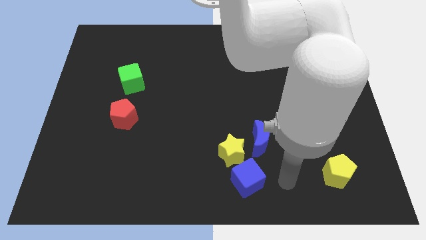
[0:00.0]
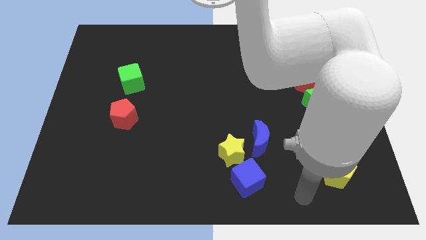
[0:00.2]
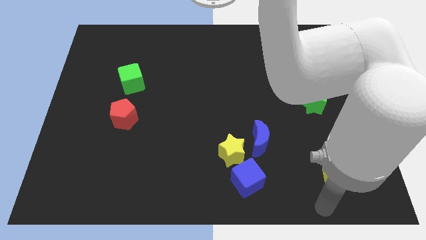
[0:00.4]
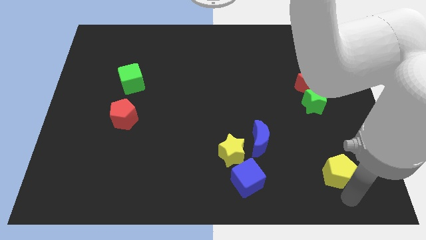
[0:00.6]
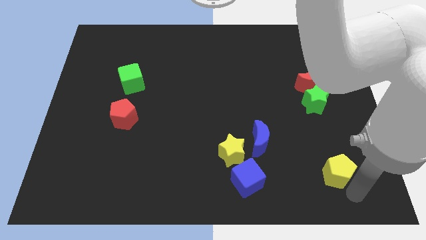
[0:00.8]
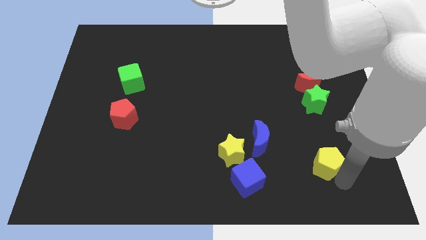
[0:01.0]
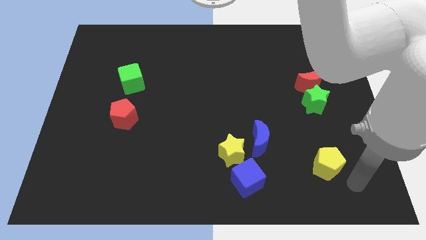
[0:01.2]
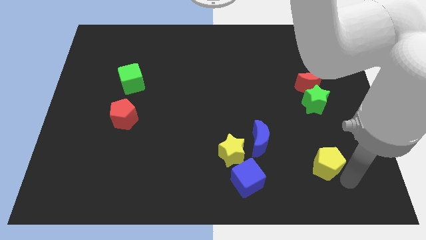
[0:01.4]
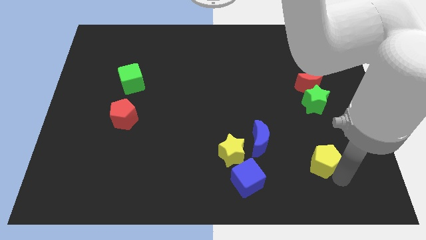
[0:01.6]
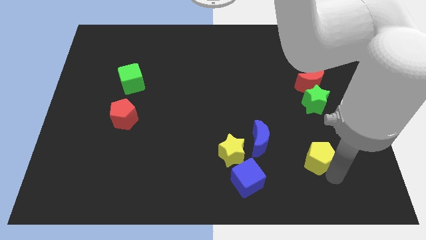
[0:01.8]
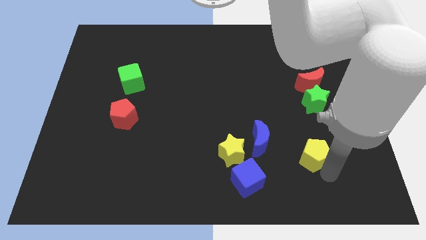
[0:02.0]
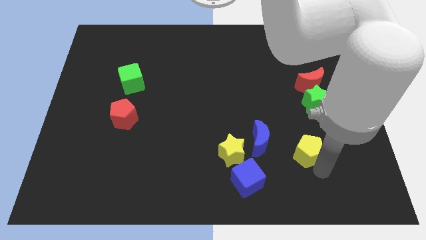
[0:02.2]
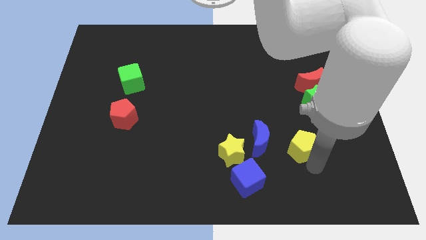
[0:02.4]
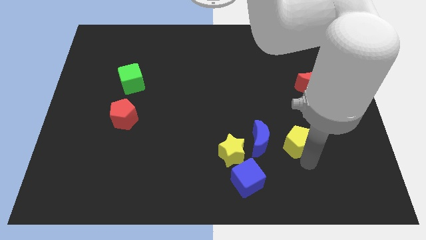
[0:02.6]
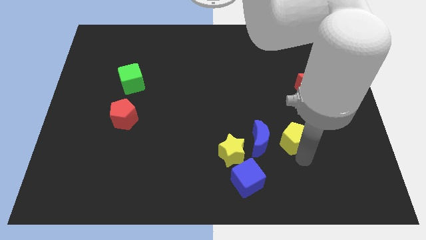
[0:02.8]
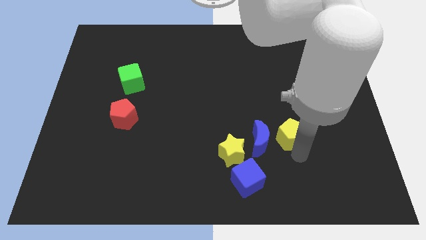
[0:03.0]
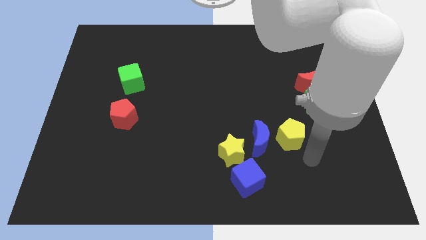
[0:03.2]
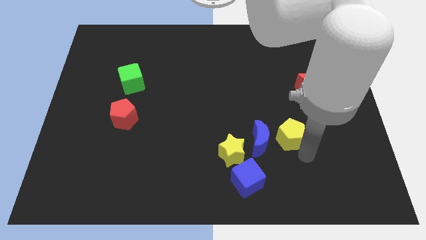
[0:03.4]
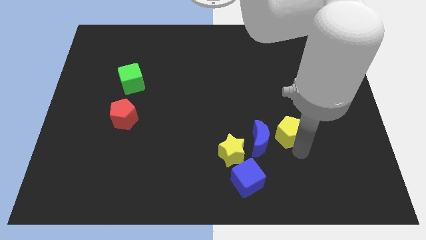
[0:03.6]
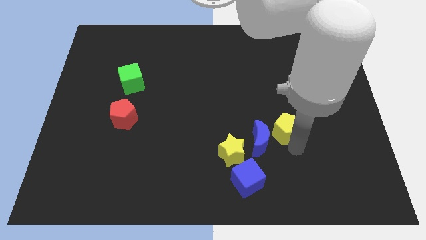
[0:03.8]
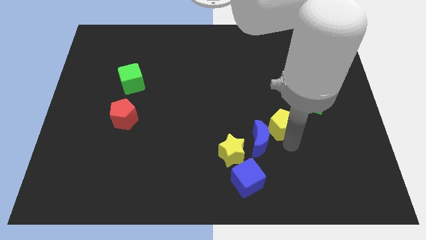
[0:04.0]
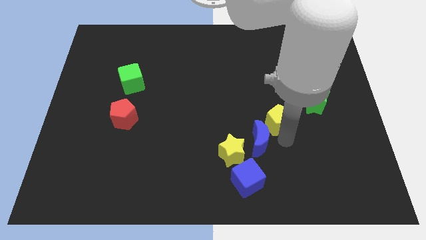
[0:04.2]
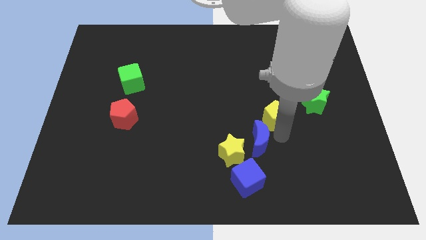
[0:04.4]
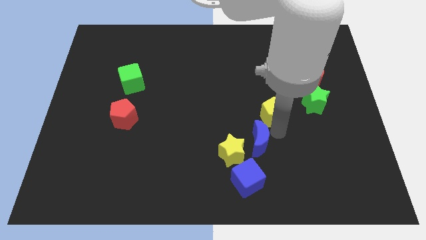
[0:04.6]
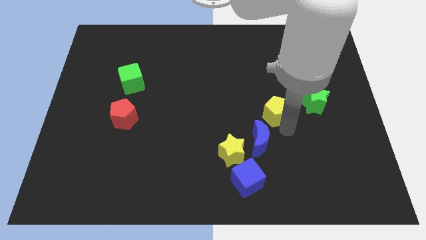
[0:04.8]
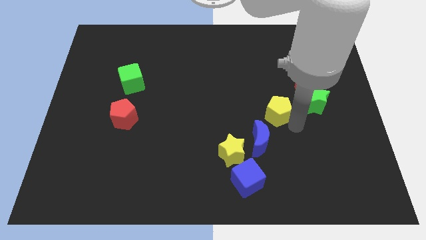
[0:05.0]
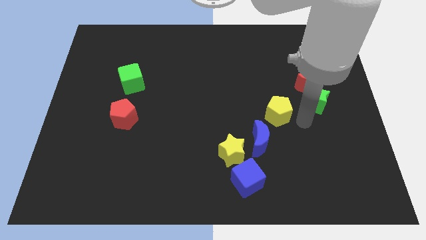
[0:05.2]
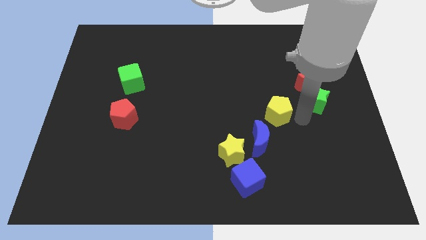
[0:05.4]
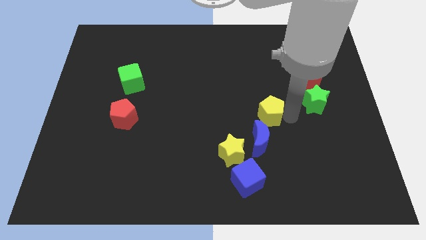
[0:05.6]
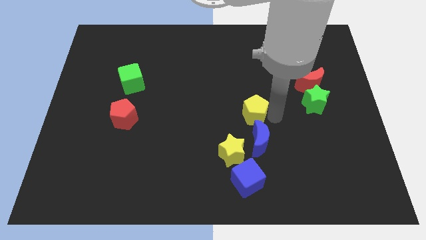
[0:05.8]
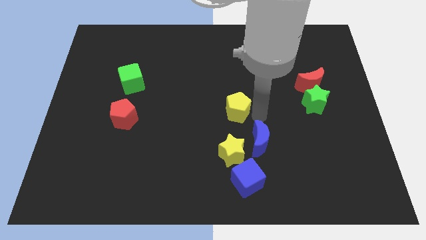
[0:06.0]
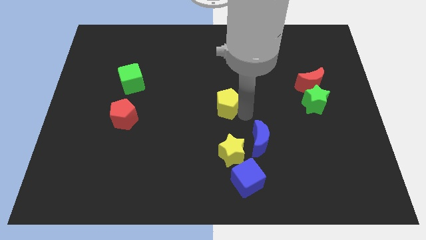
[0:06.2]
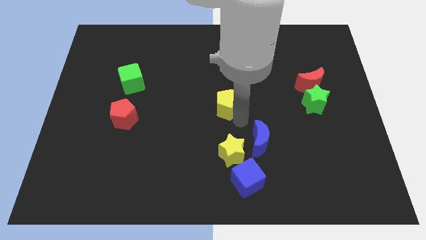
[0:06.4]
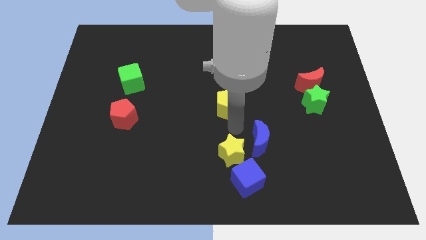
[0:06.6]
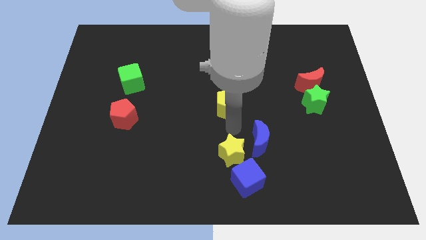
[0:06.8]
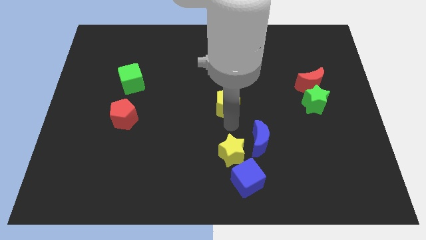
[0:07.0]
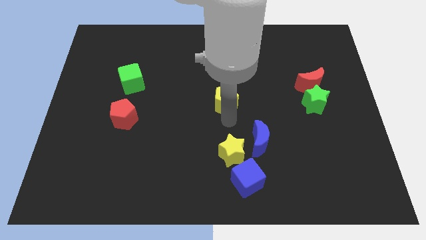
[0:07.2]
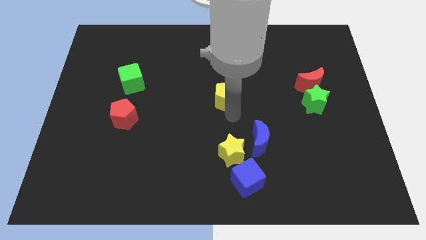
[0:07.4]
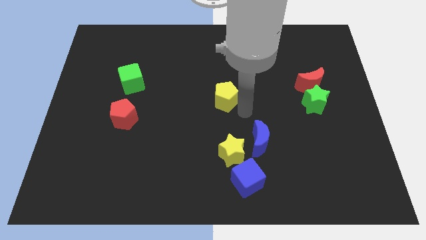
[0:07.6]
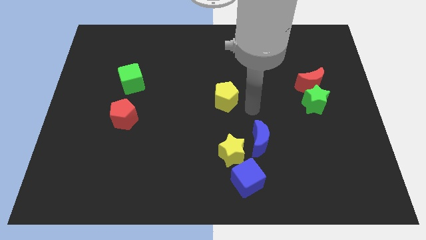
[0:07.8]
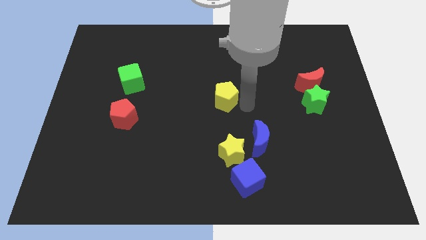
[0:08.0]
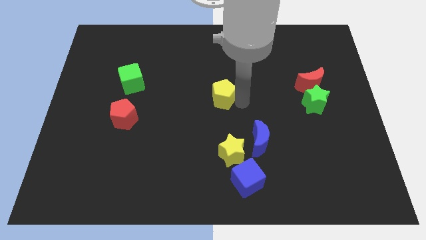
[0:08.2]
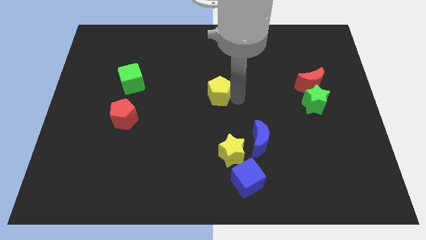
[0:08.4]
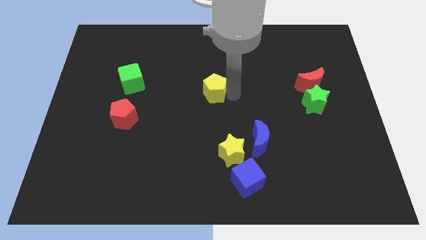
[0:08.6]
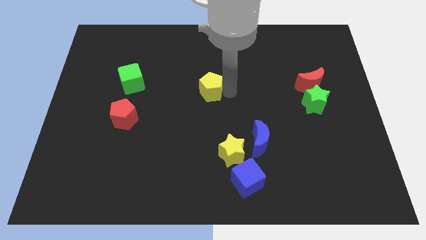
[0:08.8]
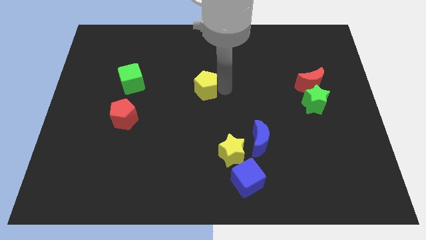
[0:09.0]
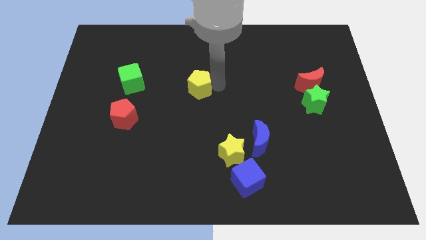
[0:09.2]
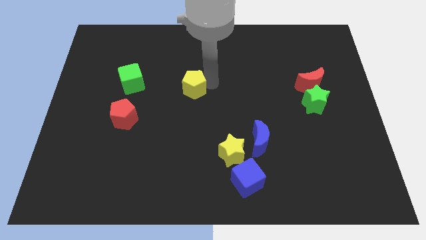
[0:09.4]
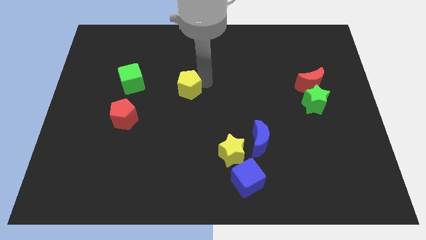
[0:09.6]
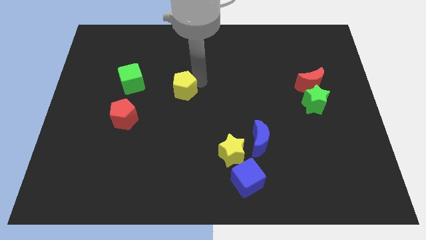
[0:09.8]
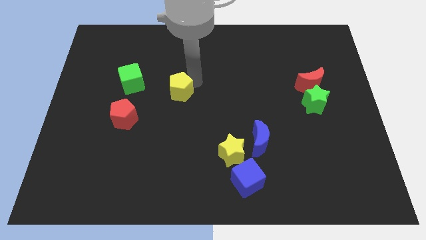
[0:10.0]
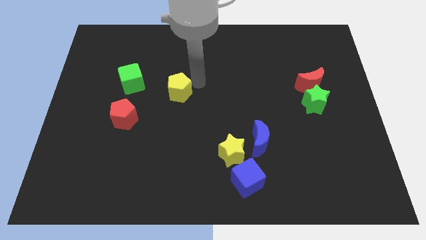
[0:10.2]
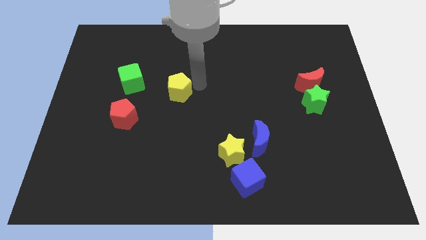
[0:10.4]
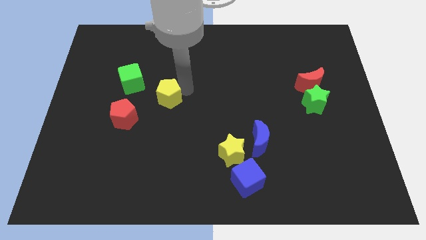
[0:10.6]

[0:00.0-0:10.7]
push the yellow pentagon diagonally up and to the right of the red pentagon

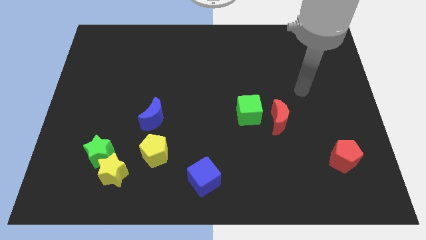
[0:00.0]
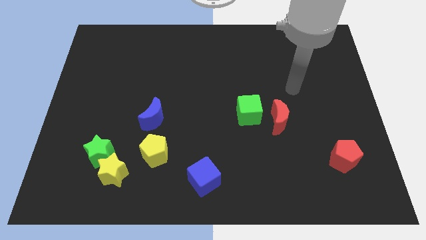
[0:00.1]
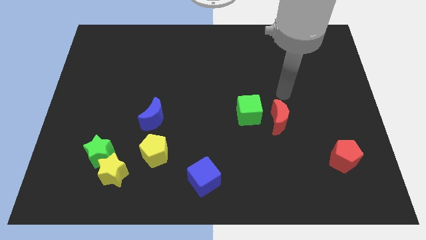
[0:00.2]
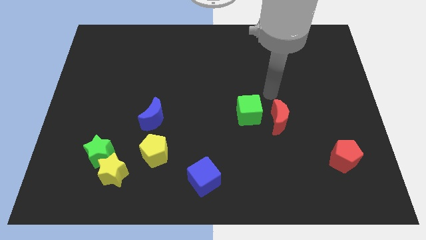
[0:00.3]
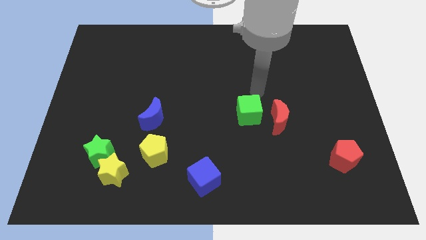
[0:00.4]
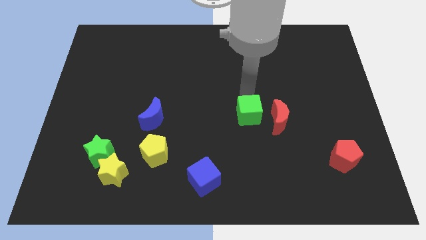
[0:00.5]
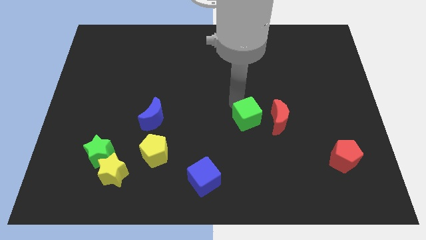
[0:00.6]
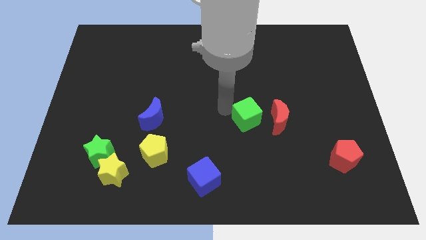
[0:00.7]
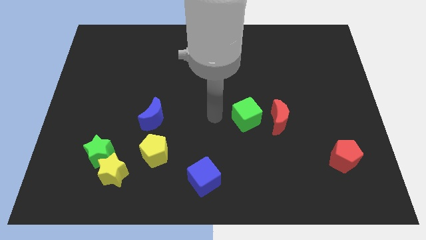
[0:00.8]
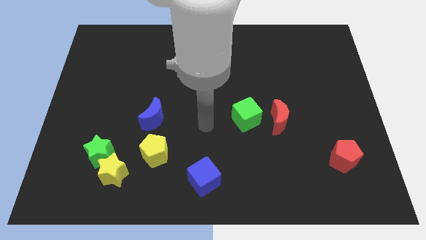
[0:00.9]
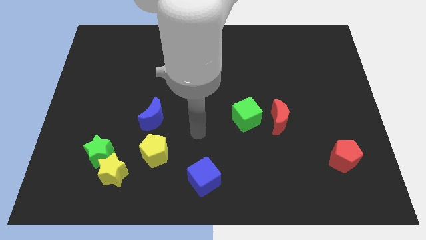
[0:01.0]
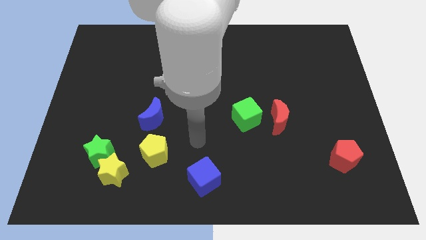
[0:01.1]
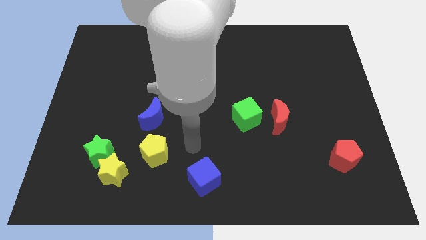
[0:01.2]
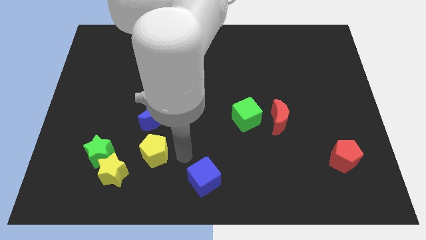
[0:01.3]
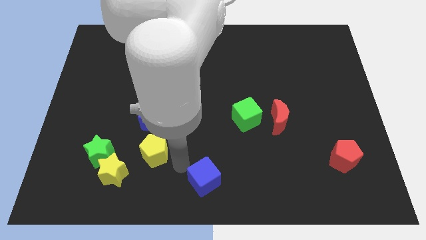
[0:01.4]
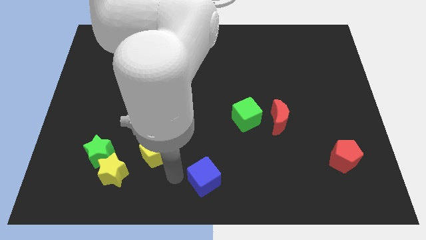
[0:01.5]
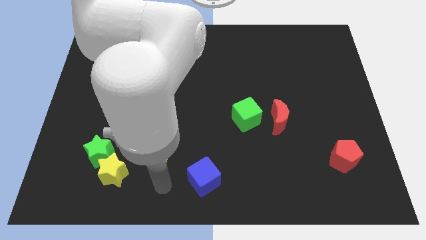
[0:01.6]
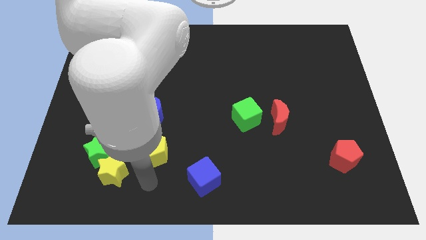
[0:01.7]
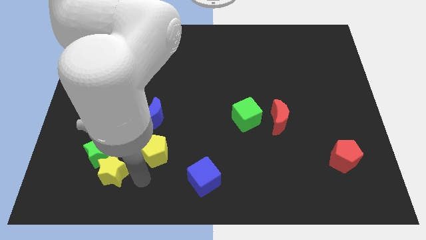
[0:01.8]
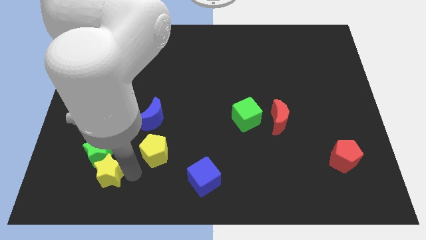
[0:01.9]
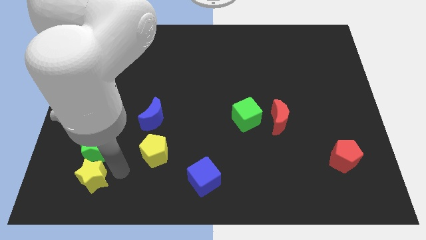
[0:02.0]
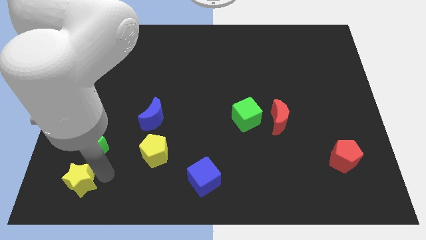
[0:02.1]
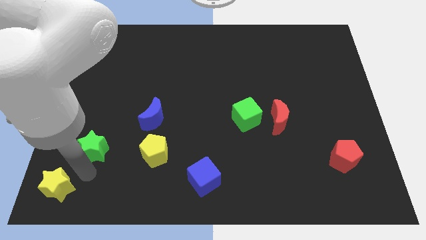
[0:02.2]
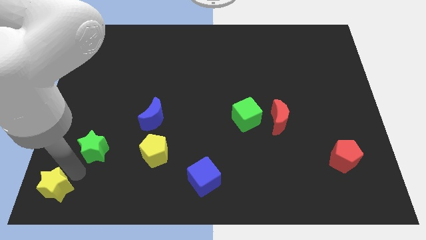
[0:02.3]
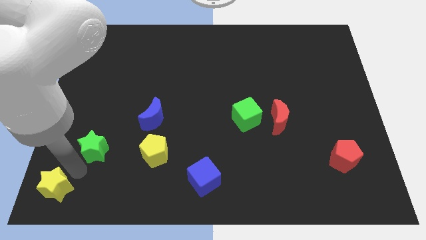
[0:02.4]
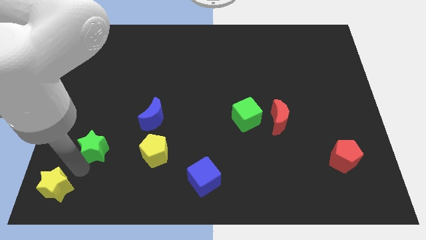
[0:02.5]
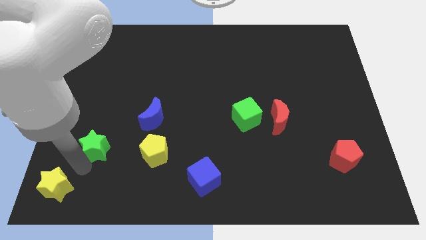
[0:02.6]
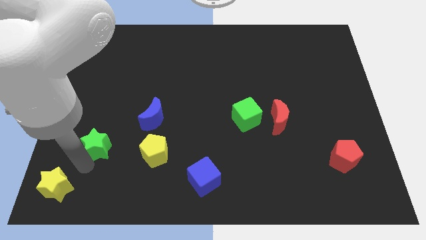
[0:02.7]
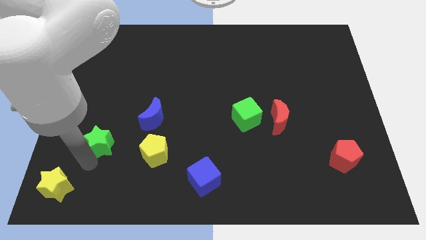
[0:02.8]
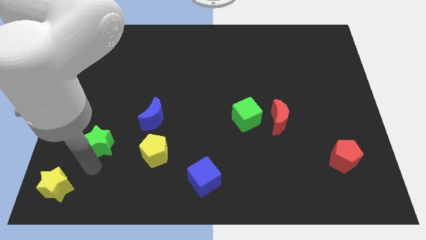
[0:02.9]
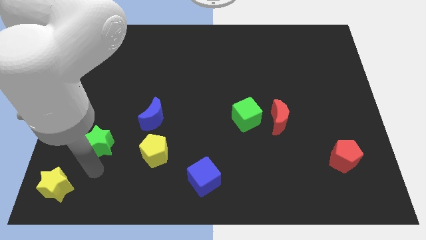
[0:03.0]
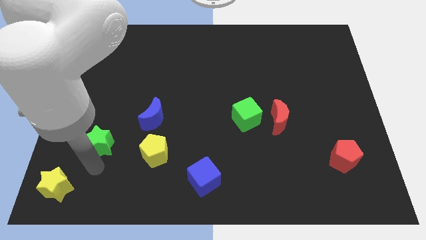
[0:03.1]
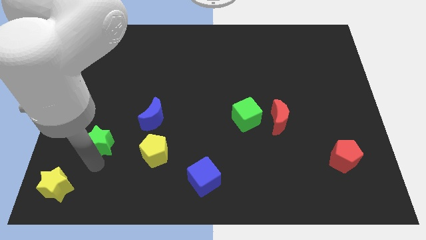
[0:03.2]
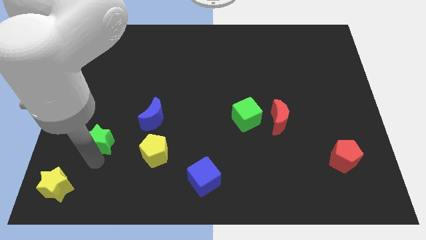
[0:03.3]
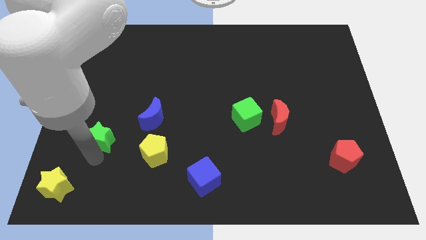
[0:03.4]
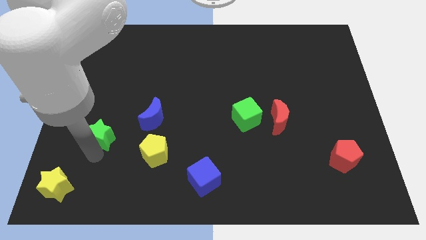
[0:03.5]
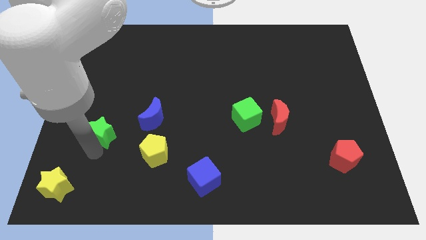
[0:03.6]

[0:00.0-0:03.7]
put the green star just left of the blue moon
